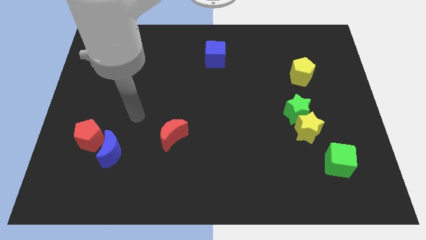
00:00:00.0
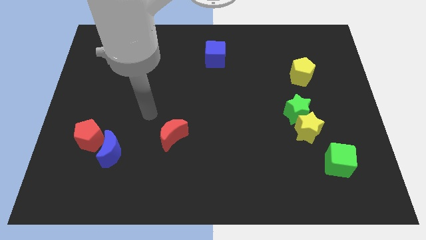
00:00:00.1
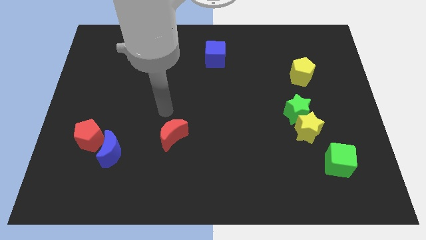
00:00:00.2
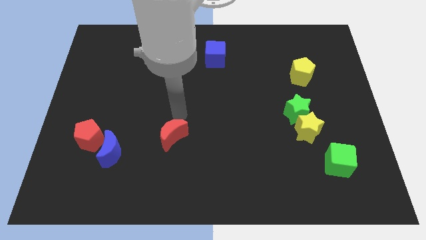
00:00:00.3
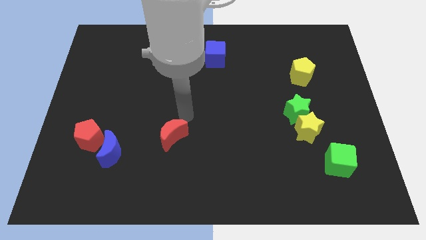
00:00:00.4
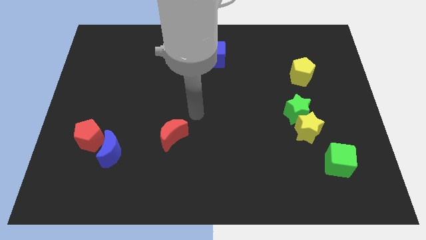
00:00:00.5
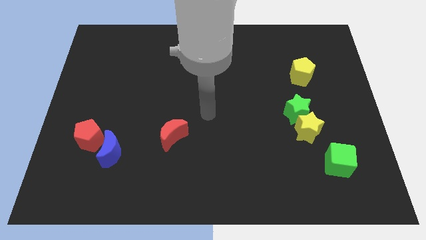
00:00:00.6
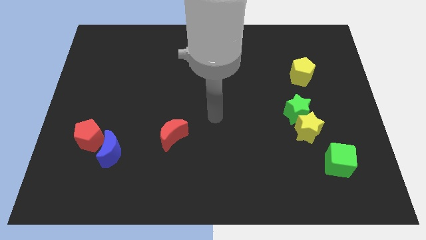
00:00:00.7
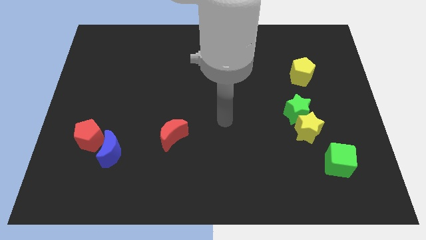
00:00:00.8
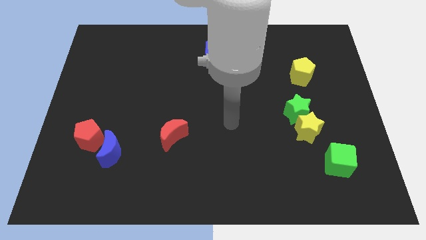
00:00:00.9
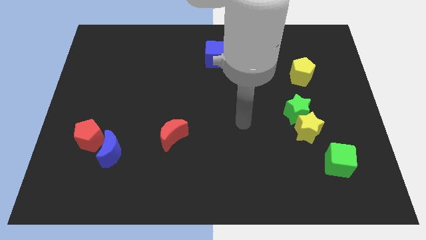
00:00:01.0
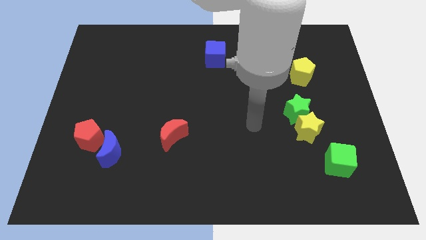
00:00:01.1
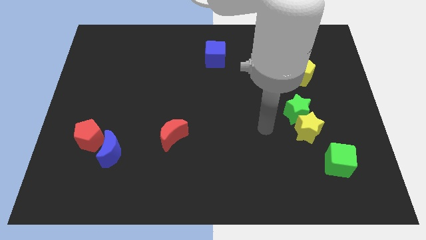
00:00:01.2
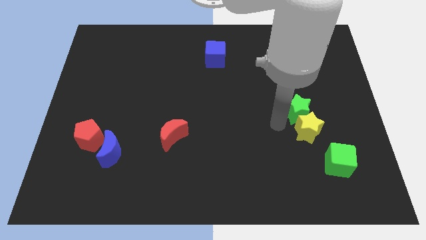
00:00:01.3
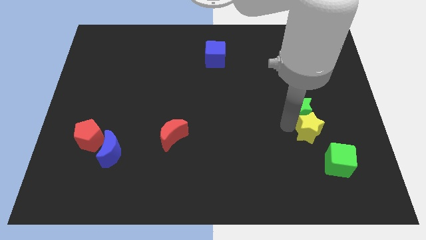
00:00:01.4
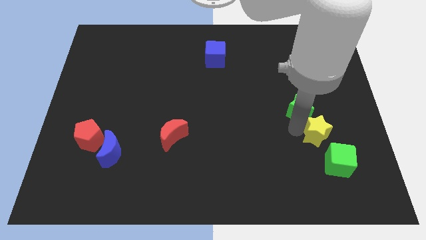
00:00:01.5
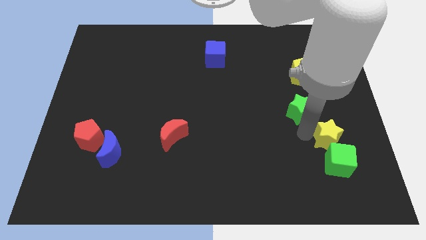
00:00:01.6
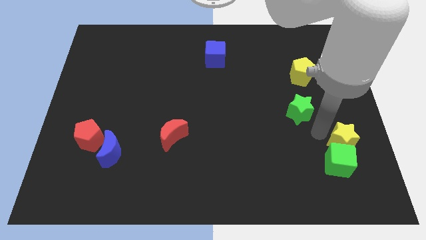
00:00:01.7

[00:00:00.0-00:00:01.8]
separate the green star from the yellow star

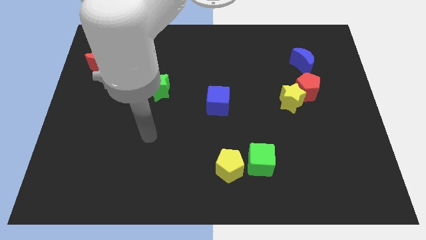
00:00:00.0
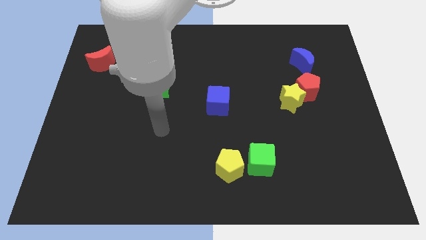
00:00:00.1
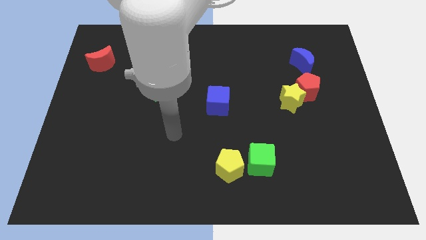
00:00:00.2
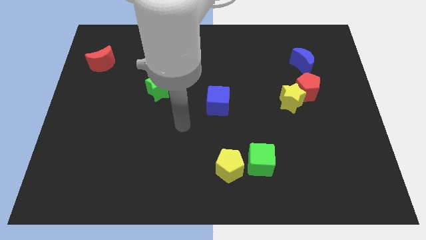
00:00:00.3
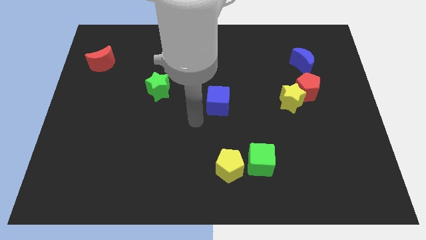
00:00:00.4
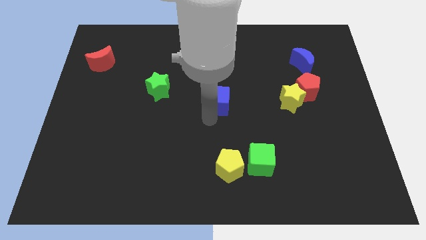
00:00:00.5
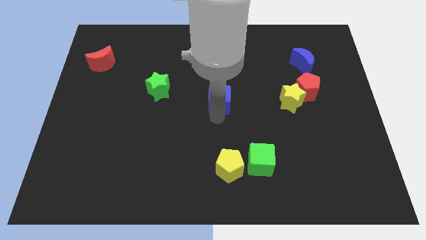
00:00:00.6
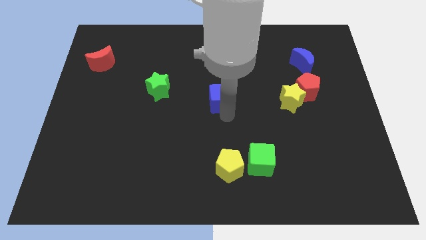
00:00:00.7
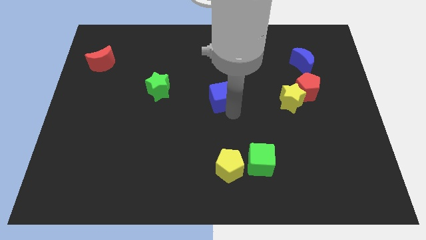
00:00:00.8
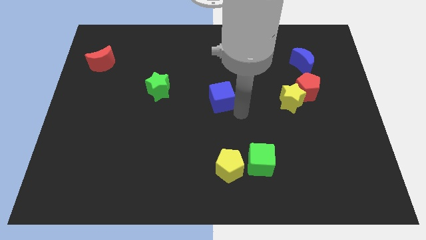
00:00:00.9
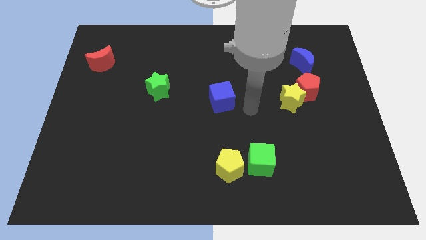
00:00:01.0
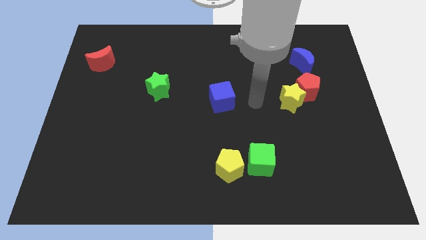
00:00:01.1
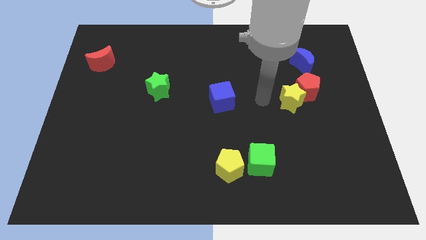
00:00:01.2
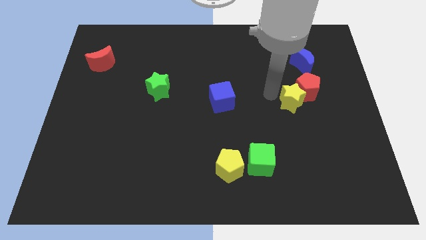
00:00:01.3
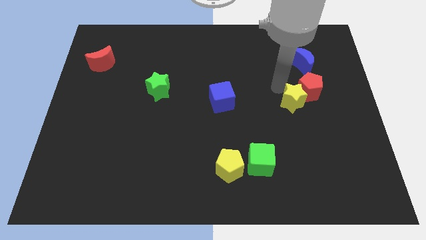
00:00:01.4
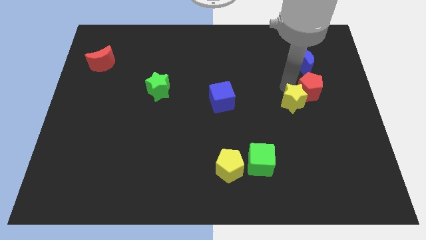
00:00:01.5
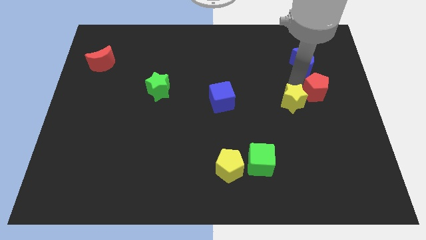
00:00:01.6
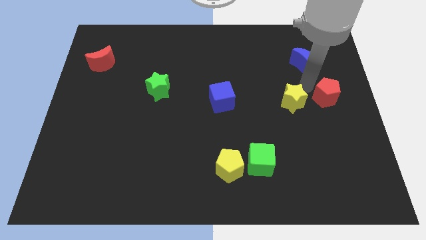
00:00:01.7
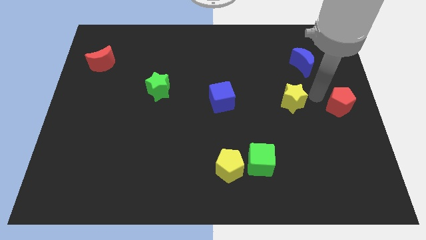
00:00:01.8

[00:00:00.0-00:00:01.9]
separate the yellow star from the red pentagon

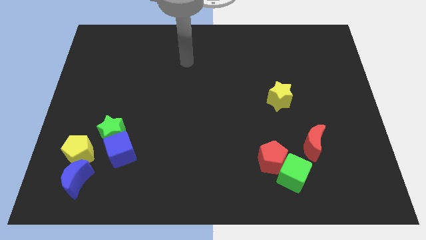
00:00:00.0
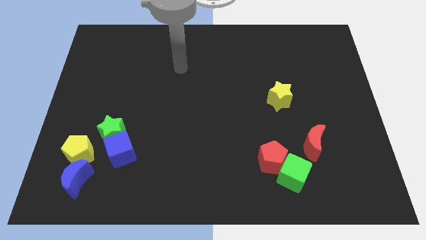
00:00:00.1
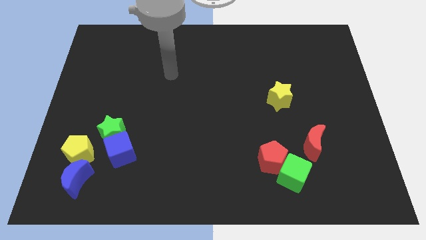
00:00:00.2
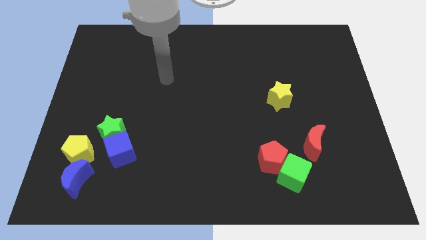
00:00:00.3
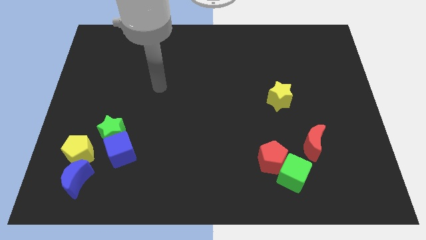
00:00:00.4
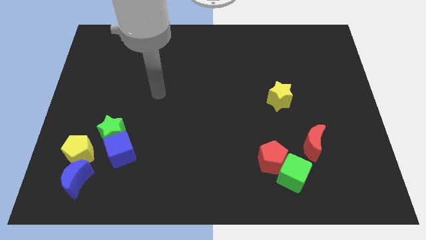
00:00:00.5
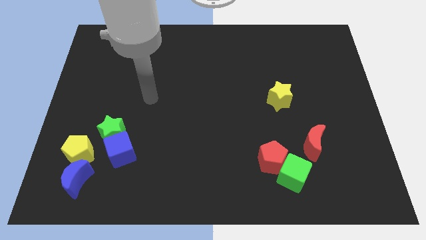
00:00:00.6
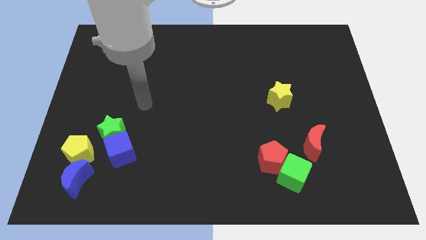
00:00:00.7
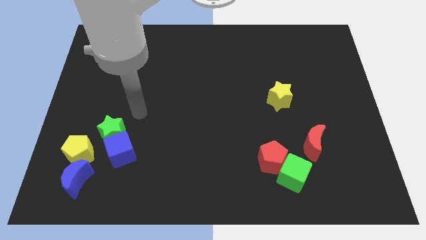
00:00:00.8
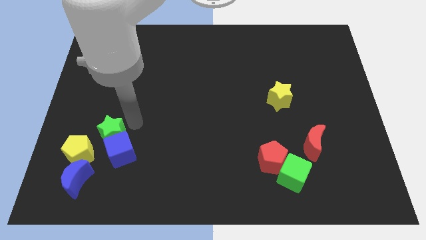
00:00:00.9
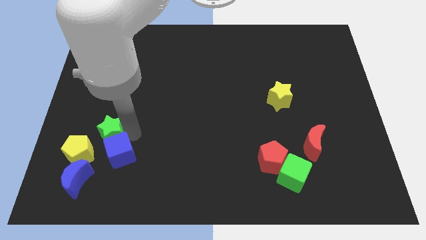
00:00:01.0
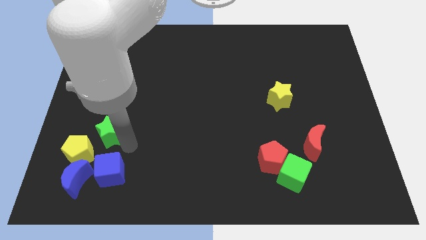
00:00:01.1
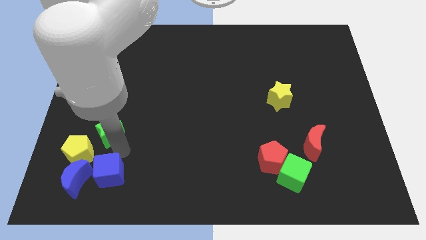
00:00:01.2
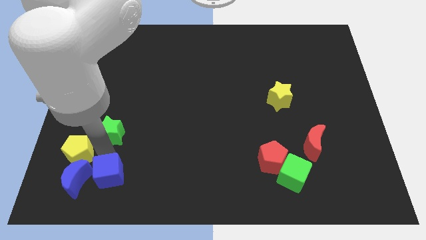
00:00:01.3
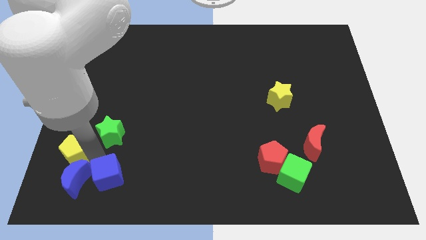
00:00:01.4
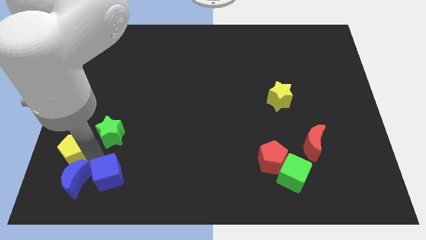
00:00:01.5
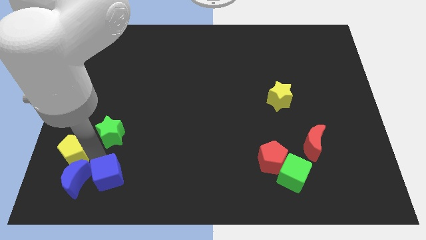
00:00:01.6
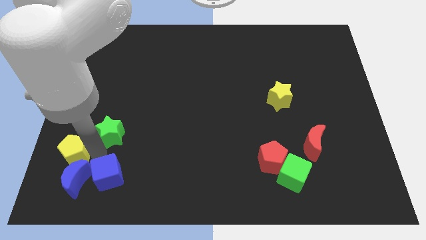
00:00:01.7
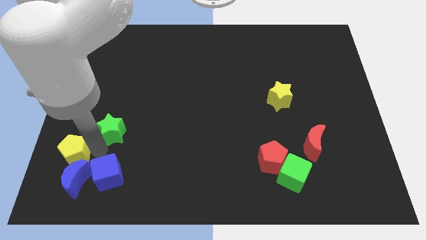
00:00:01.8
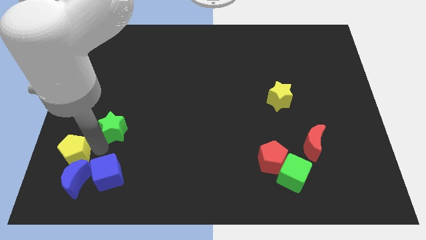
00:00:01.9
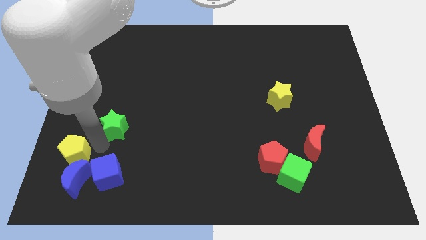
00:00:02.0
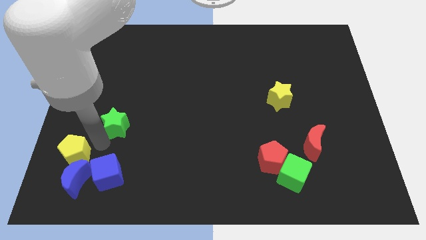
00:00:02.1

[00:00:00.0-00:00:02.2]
pull the green star apart from the blue cube and yellow pentagon

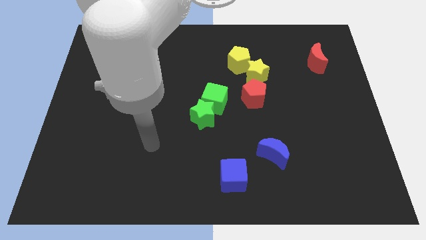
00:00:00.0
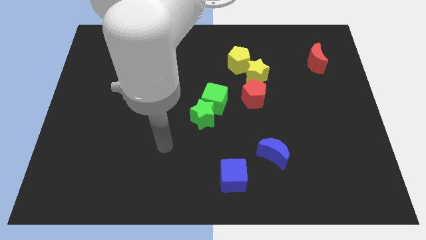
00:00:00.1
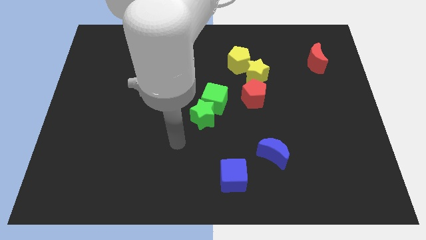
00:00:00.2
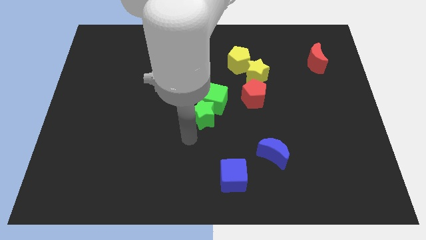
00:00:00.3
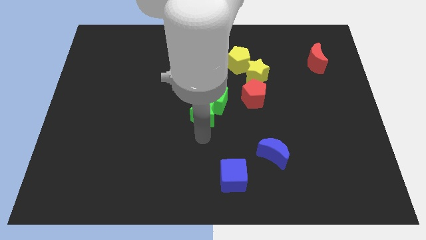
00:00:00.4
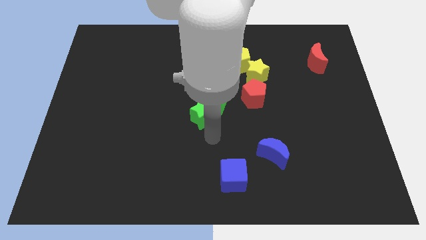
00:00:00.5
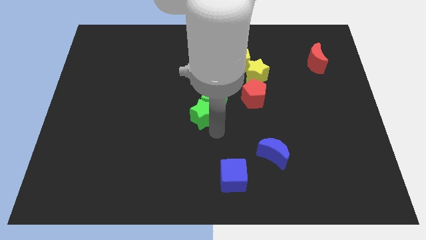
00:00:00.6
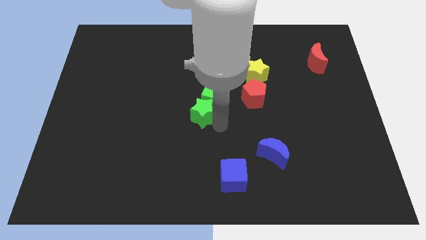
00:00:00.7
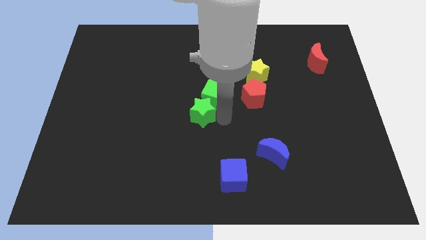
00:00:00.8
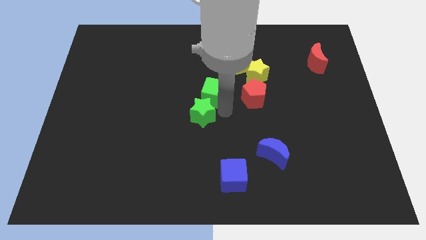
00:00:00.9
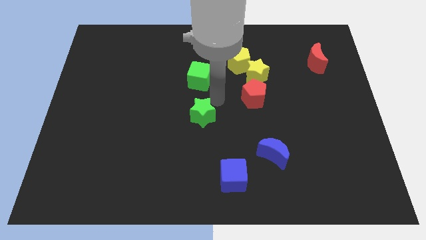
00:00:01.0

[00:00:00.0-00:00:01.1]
pull the green star apart from the green cube

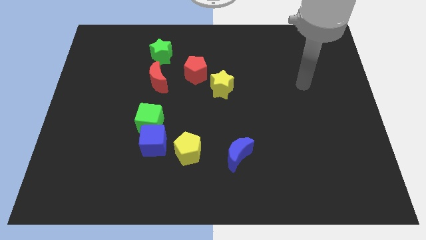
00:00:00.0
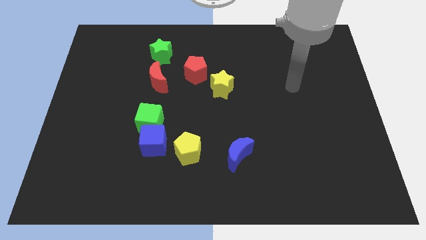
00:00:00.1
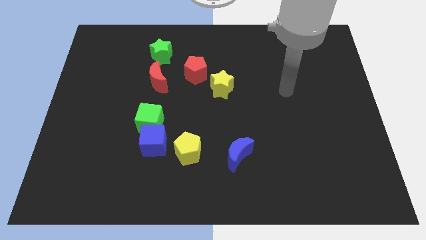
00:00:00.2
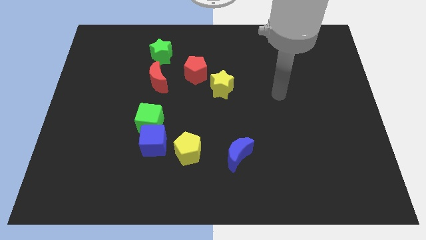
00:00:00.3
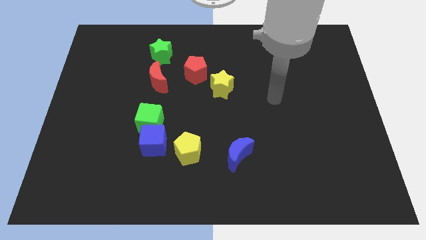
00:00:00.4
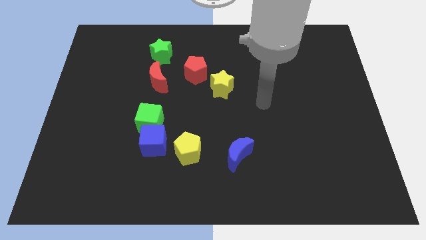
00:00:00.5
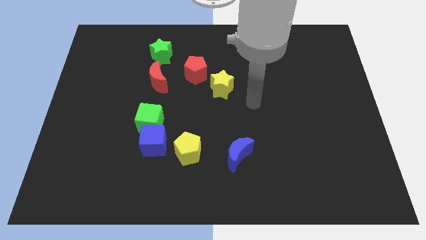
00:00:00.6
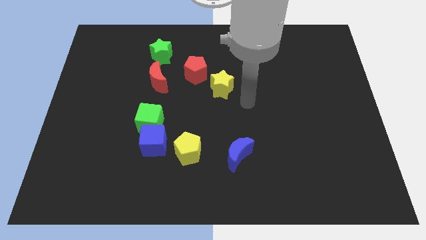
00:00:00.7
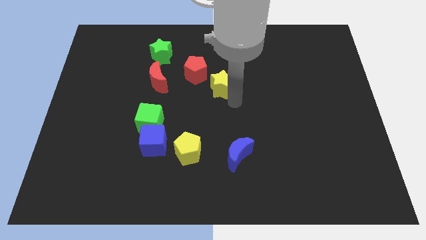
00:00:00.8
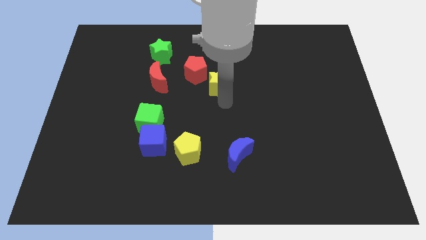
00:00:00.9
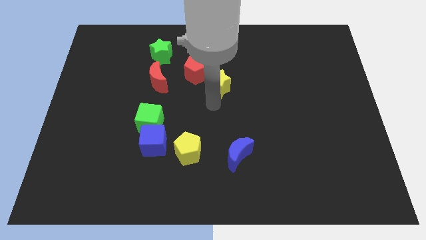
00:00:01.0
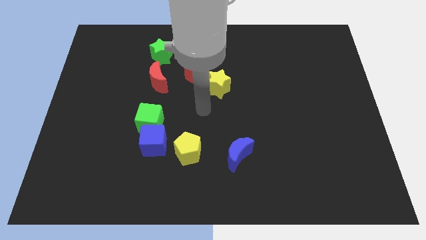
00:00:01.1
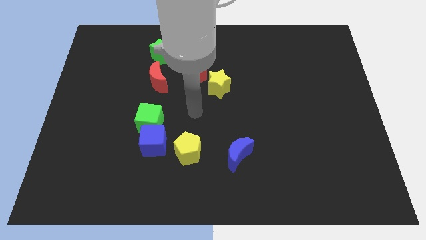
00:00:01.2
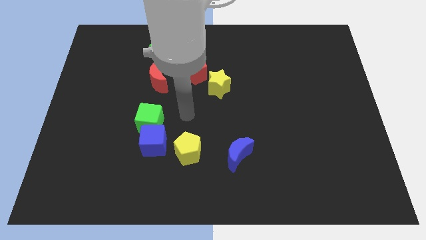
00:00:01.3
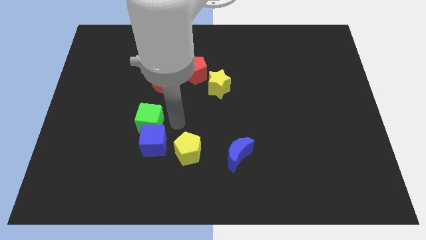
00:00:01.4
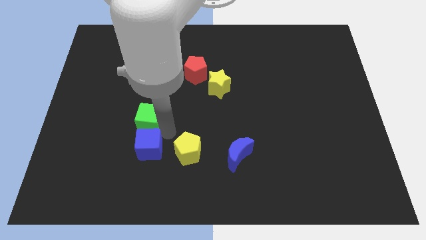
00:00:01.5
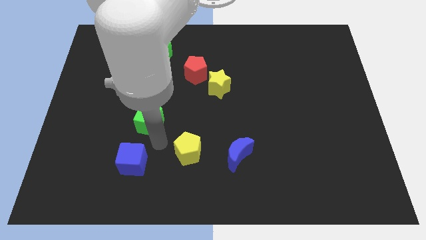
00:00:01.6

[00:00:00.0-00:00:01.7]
pull the green cube apart from the blue cube

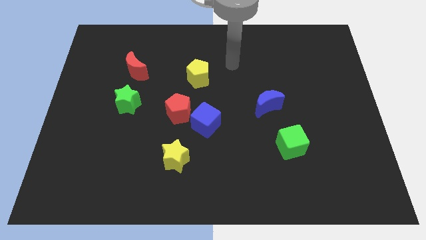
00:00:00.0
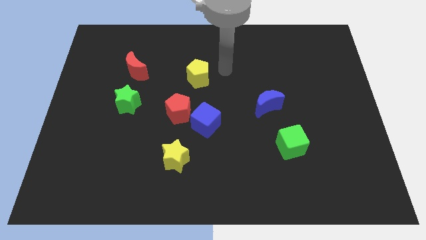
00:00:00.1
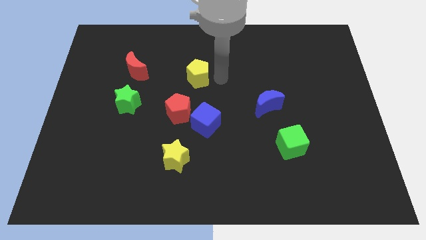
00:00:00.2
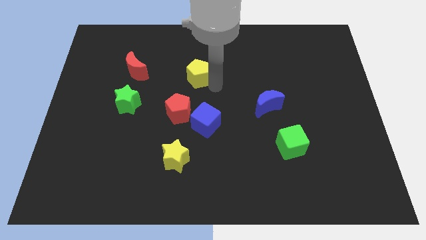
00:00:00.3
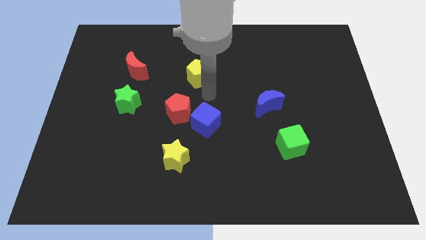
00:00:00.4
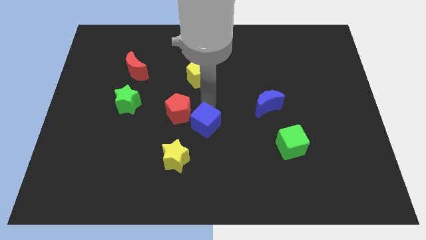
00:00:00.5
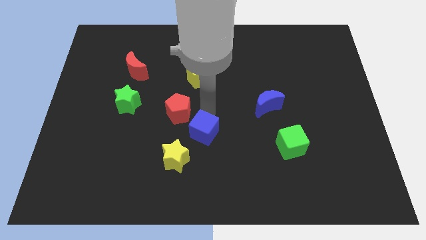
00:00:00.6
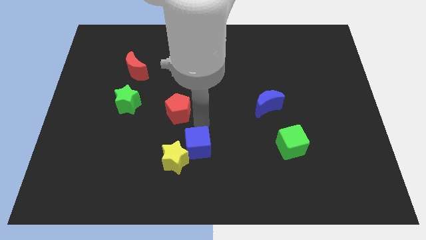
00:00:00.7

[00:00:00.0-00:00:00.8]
separate the red pentagon from the blue cube

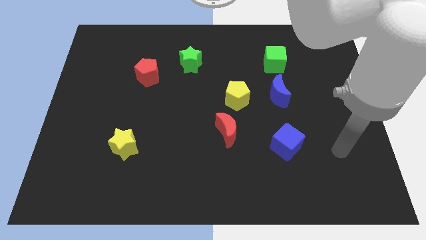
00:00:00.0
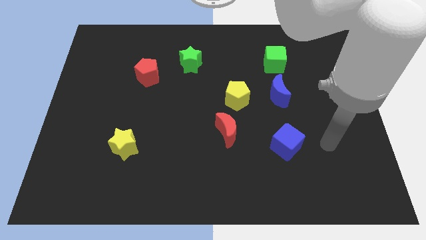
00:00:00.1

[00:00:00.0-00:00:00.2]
move the red moon away from the yellow pentagon
